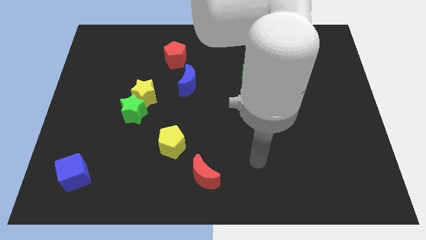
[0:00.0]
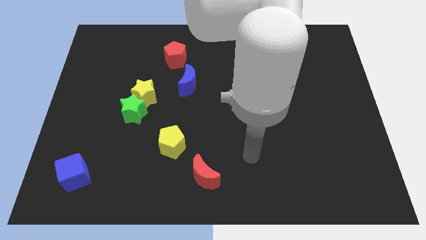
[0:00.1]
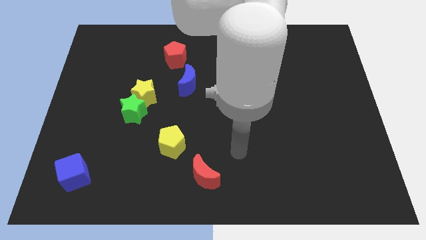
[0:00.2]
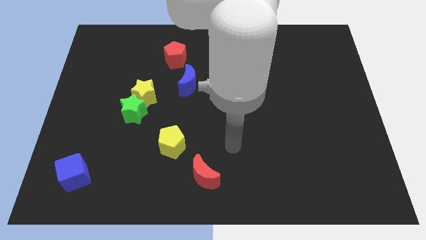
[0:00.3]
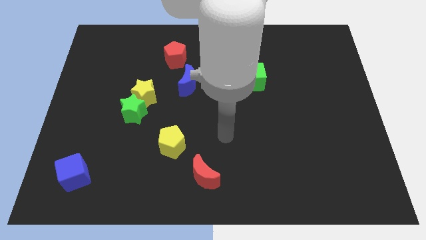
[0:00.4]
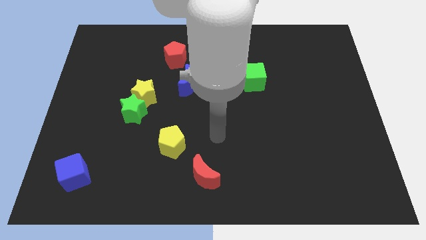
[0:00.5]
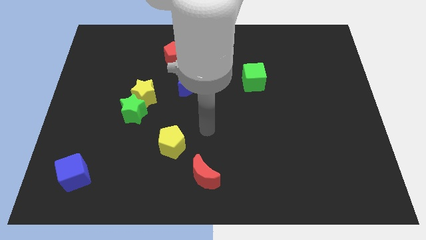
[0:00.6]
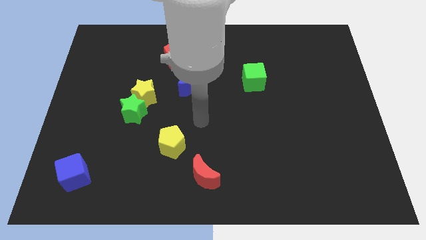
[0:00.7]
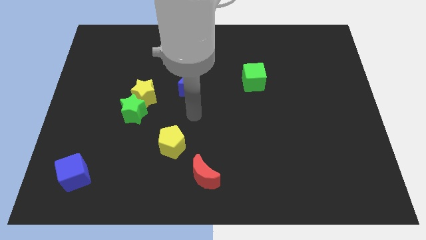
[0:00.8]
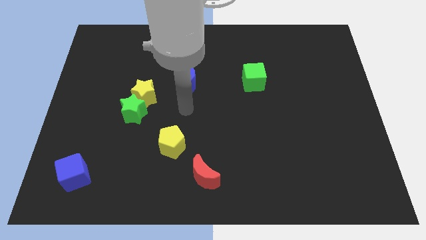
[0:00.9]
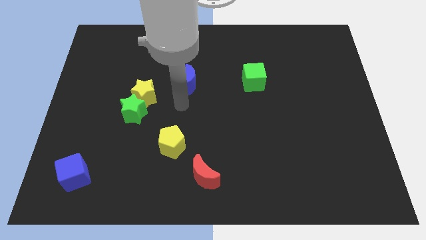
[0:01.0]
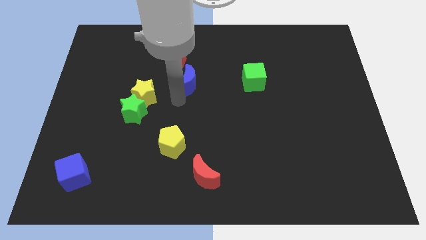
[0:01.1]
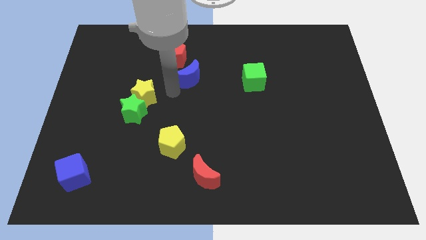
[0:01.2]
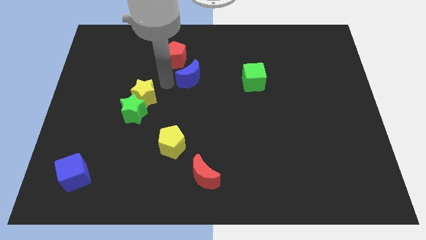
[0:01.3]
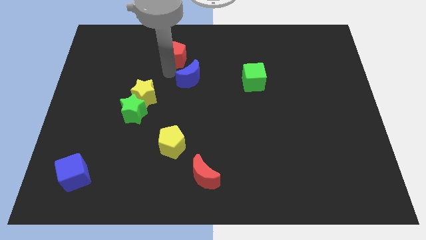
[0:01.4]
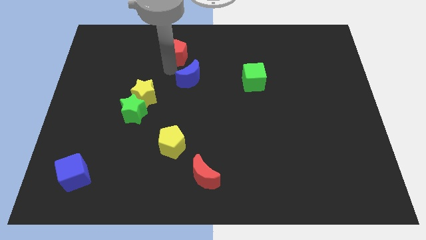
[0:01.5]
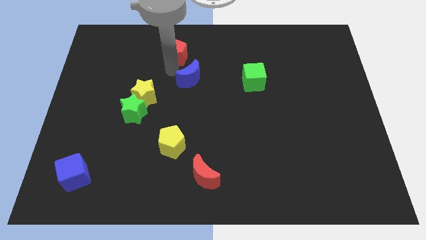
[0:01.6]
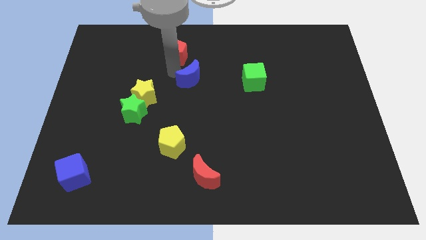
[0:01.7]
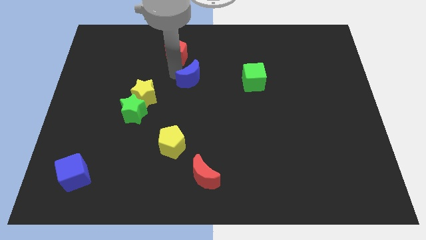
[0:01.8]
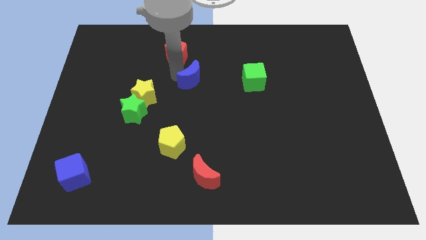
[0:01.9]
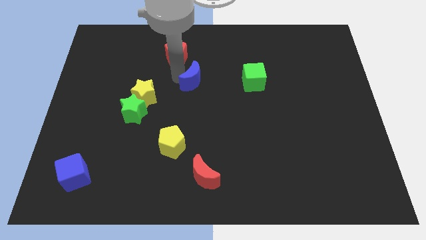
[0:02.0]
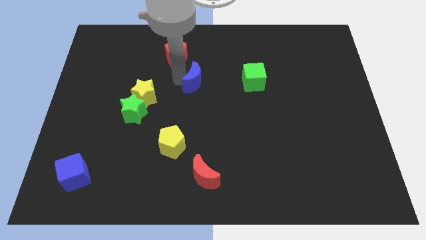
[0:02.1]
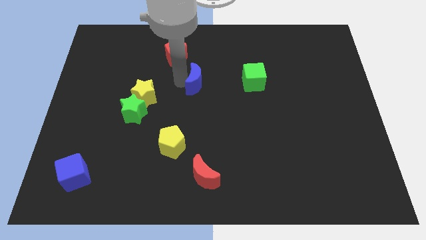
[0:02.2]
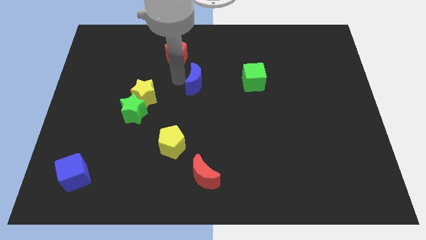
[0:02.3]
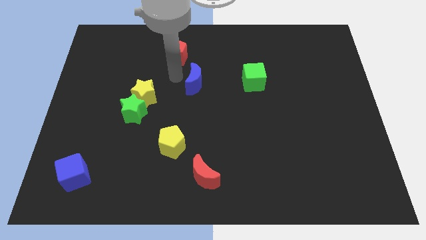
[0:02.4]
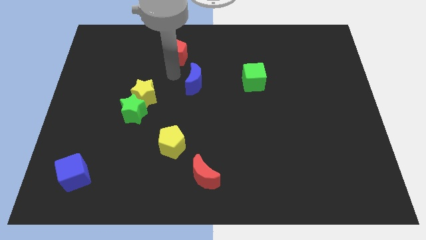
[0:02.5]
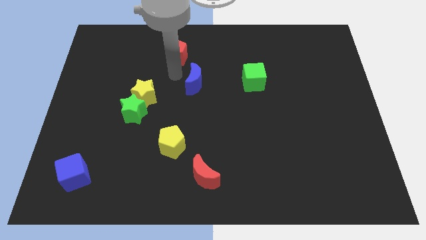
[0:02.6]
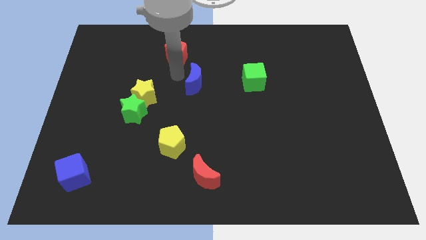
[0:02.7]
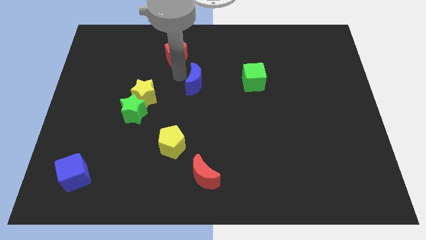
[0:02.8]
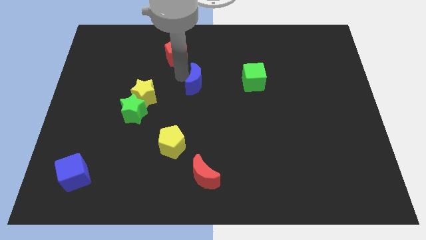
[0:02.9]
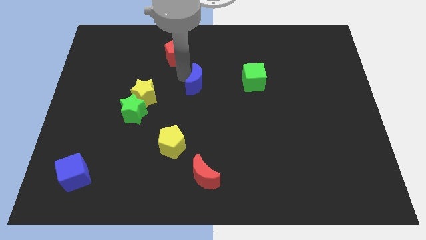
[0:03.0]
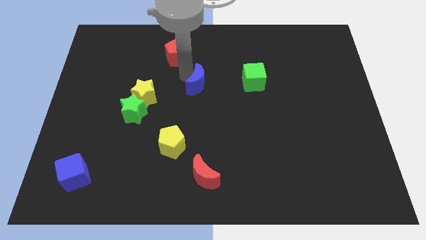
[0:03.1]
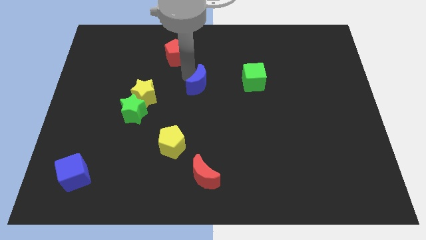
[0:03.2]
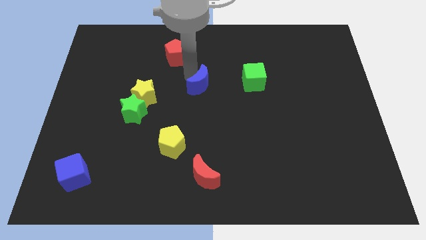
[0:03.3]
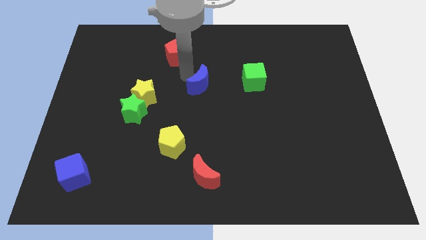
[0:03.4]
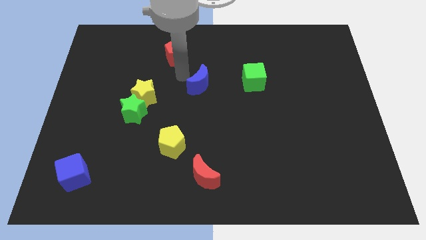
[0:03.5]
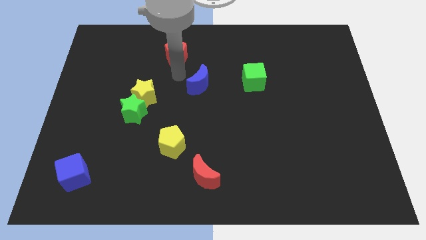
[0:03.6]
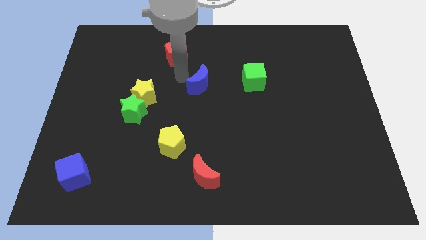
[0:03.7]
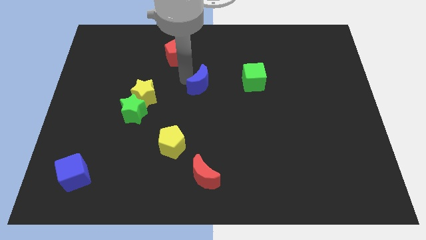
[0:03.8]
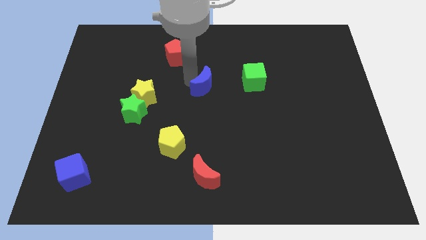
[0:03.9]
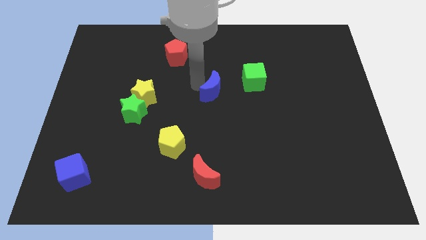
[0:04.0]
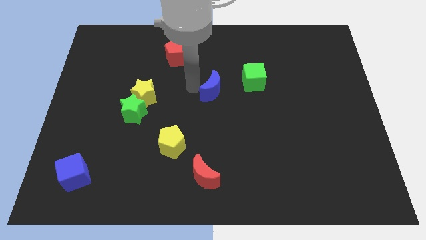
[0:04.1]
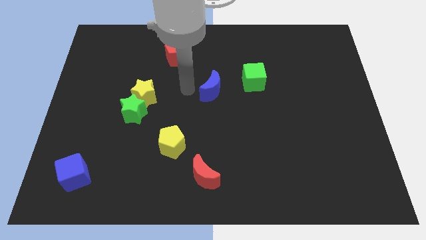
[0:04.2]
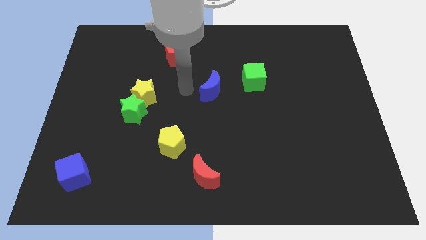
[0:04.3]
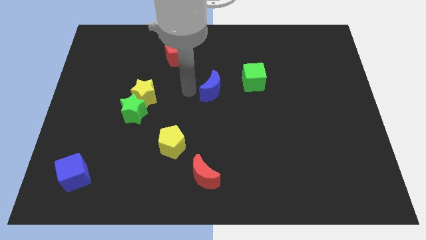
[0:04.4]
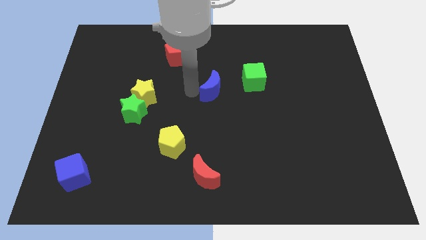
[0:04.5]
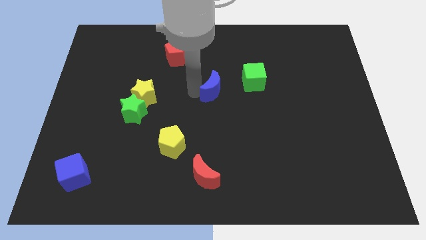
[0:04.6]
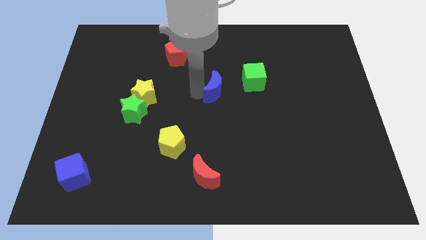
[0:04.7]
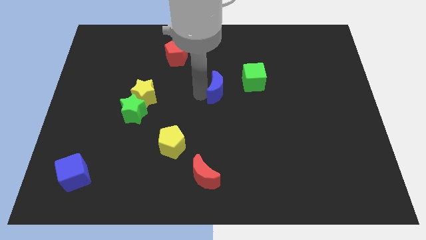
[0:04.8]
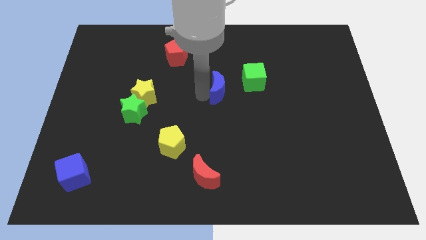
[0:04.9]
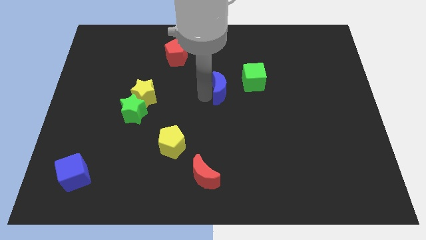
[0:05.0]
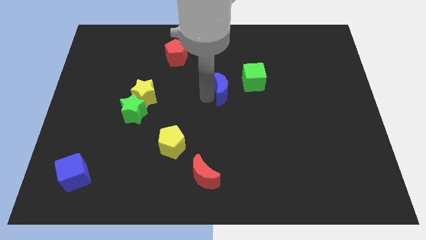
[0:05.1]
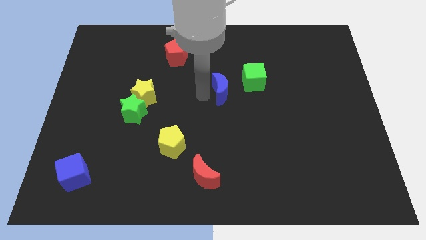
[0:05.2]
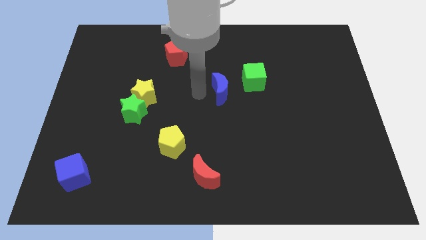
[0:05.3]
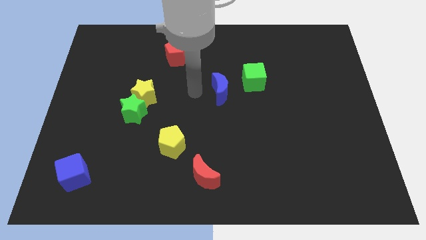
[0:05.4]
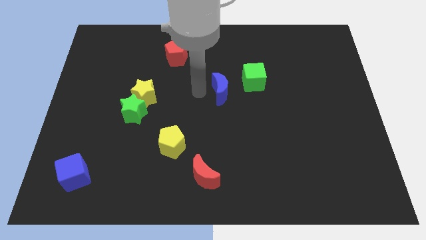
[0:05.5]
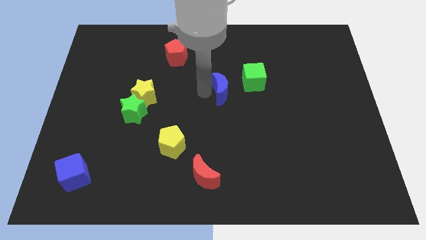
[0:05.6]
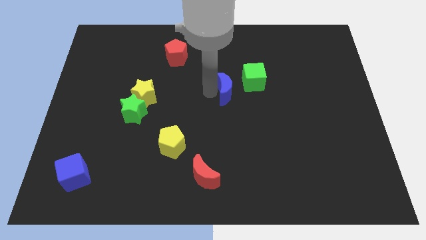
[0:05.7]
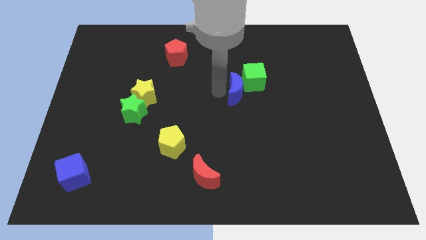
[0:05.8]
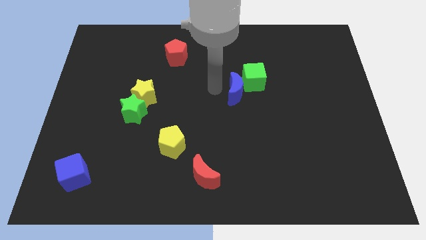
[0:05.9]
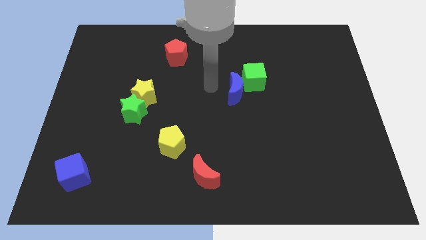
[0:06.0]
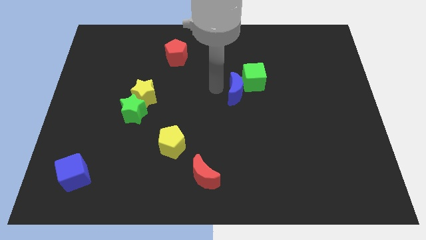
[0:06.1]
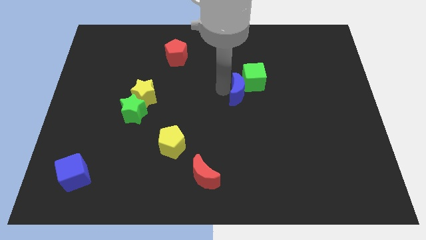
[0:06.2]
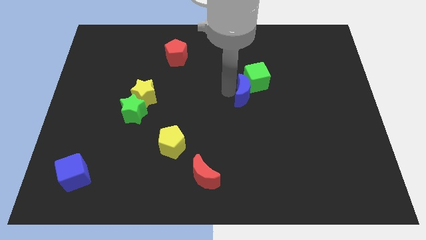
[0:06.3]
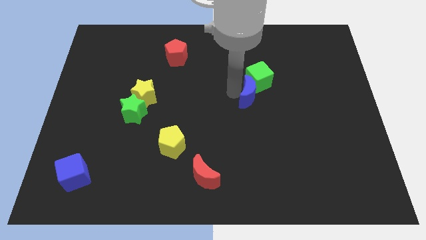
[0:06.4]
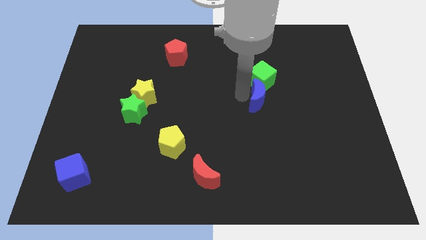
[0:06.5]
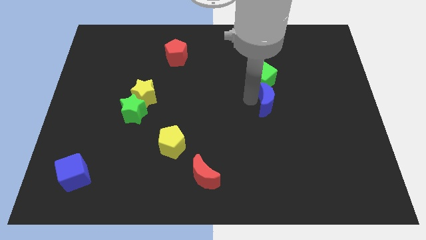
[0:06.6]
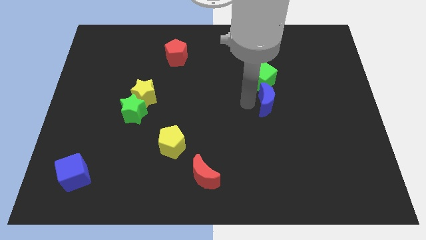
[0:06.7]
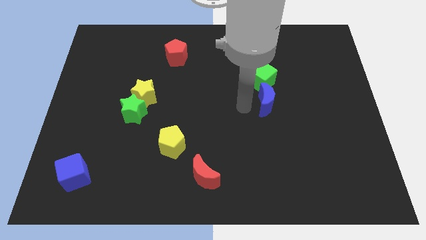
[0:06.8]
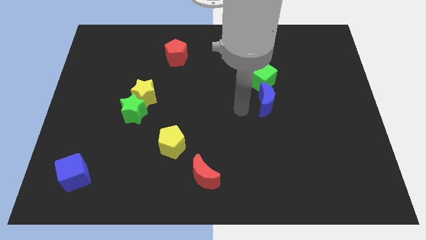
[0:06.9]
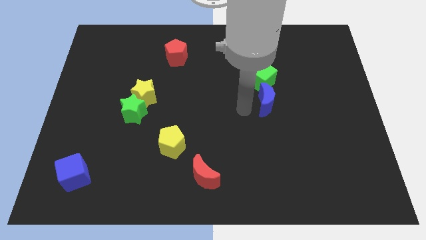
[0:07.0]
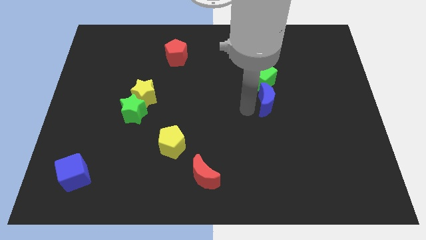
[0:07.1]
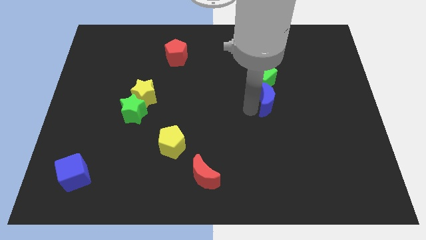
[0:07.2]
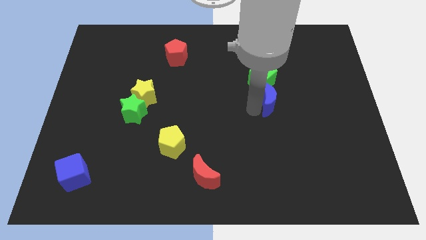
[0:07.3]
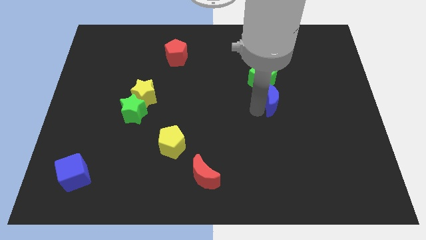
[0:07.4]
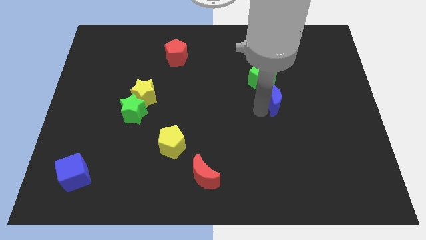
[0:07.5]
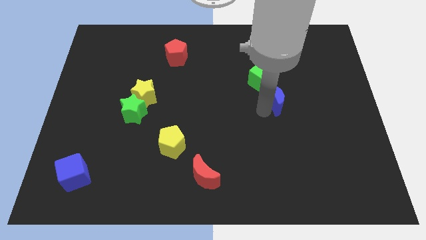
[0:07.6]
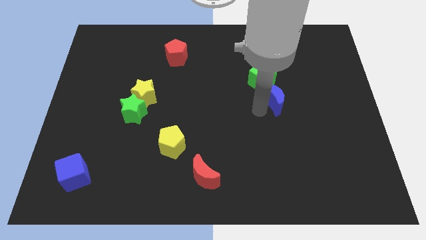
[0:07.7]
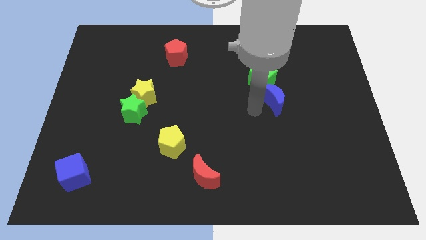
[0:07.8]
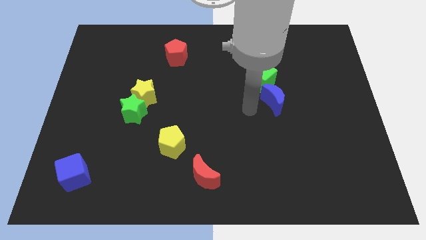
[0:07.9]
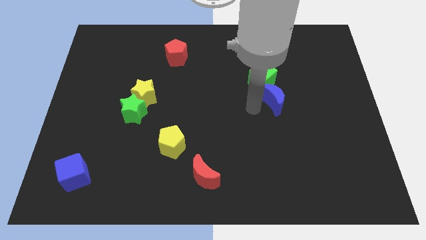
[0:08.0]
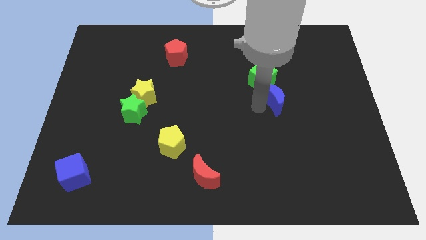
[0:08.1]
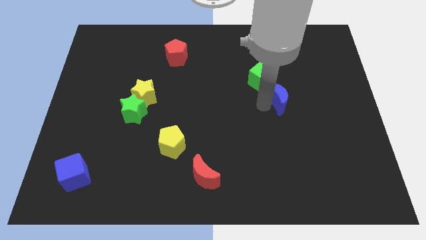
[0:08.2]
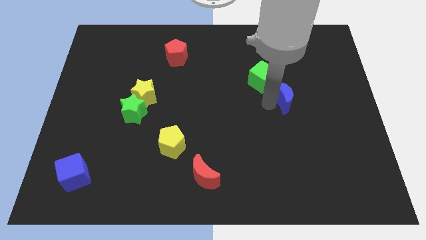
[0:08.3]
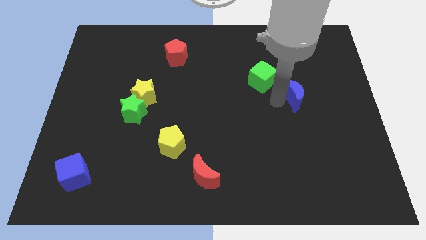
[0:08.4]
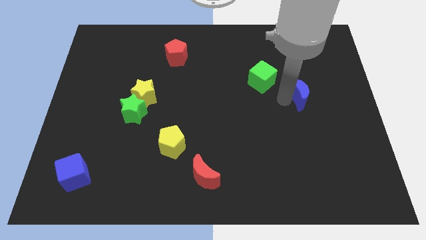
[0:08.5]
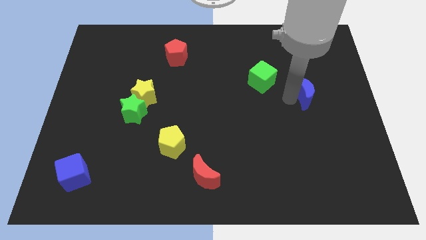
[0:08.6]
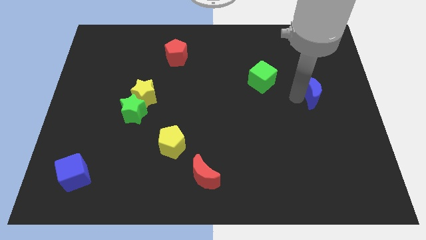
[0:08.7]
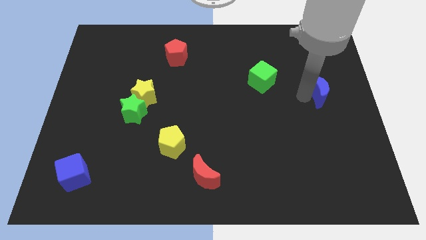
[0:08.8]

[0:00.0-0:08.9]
put the blue moon to the right side
